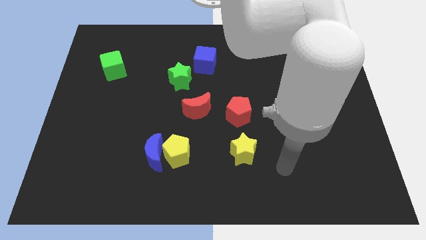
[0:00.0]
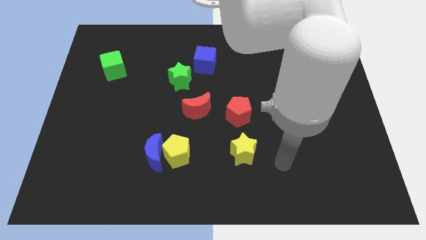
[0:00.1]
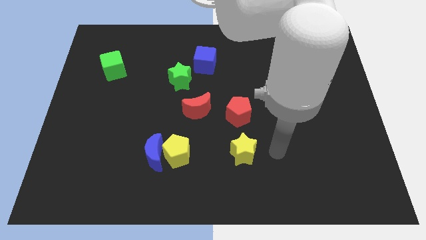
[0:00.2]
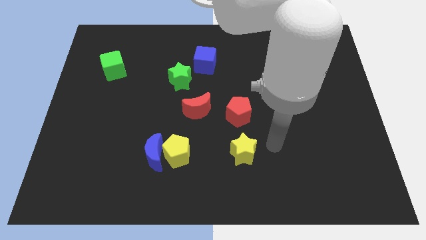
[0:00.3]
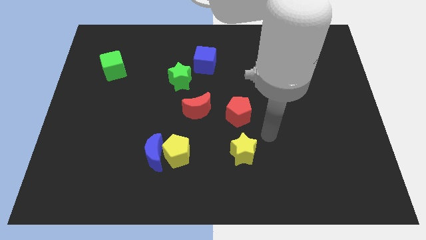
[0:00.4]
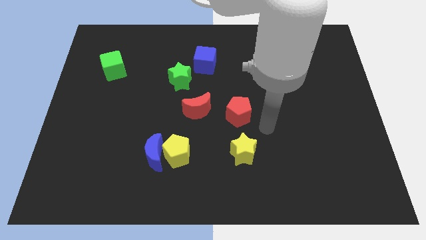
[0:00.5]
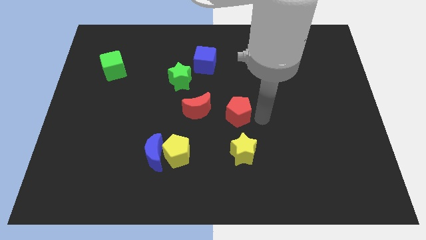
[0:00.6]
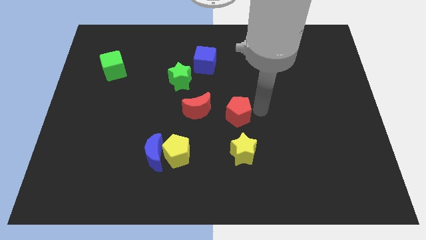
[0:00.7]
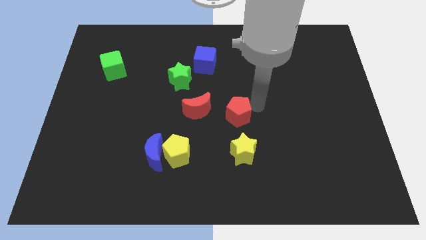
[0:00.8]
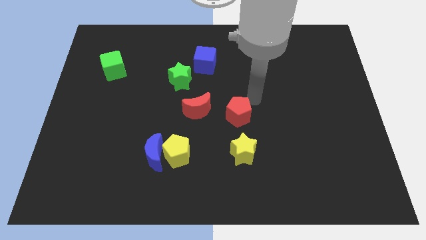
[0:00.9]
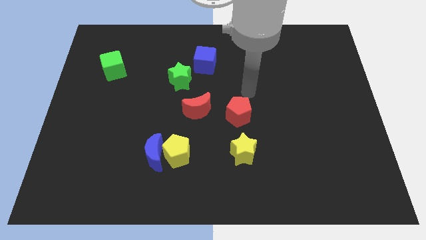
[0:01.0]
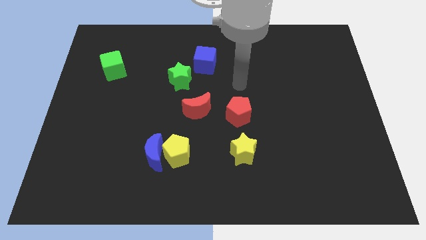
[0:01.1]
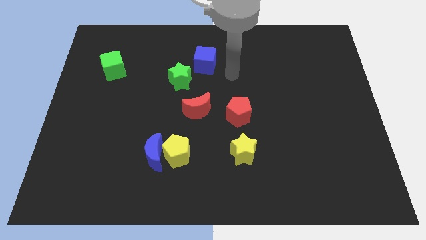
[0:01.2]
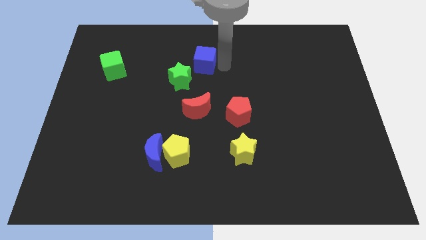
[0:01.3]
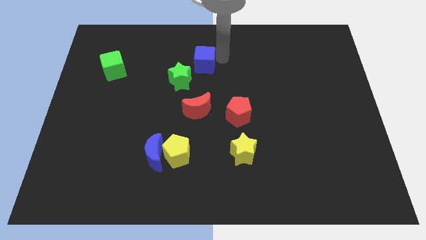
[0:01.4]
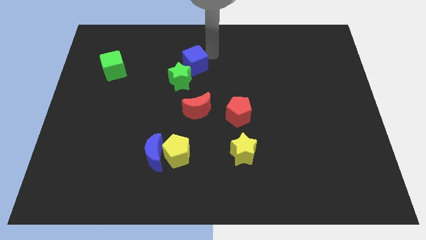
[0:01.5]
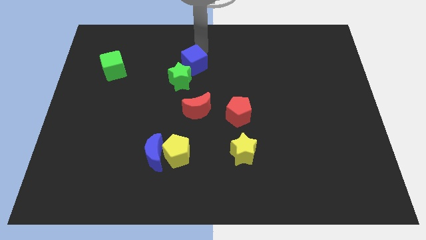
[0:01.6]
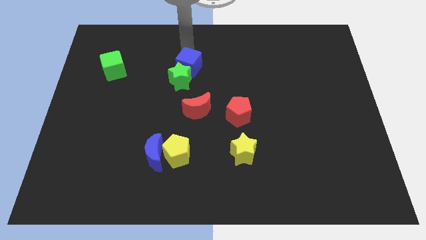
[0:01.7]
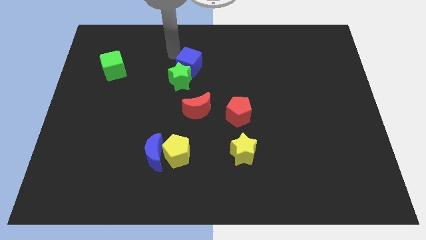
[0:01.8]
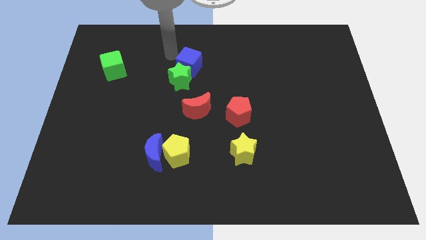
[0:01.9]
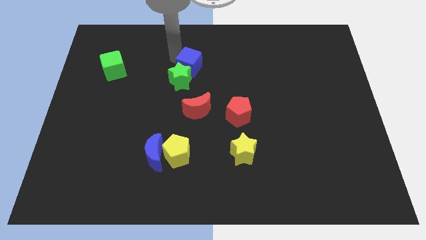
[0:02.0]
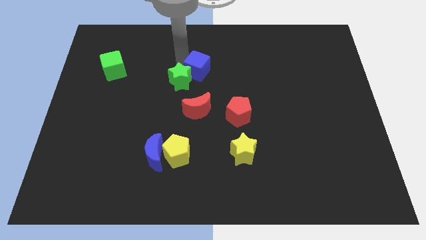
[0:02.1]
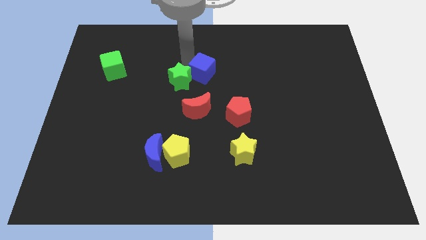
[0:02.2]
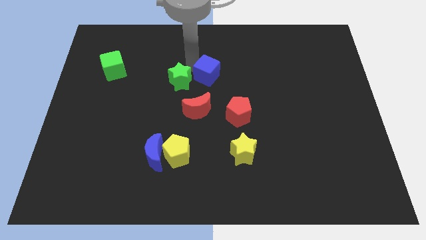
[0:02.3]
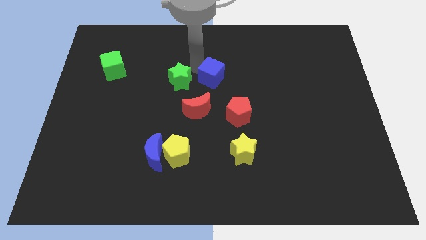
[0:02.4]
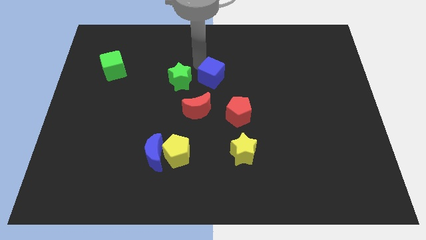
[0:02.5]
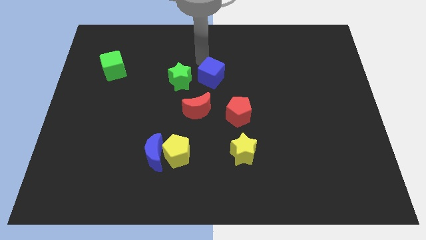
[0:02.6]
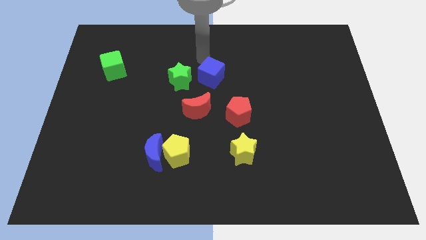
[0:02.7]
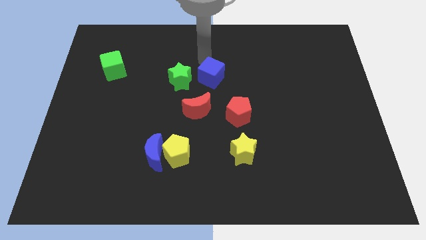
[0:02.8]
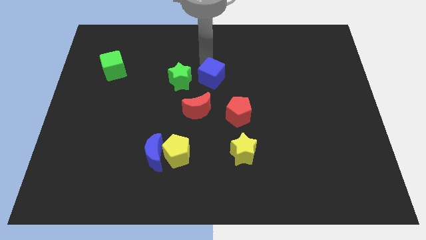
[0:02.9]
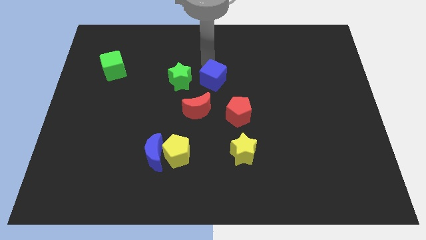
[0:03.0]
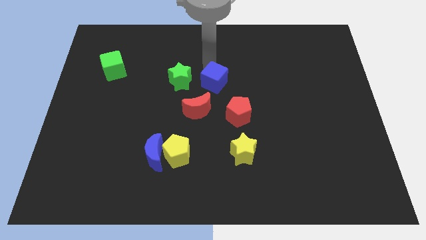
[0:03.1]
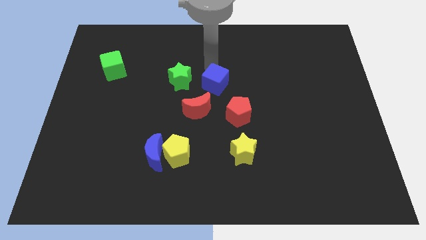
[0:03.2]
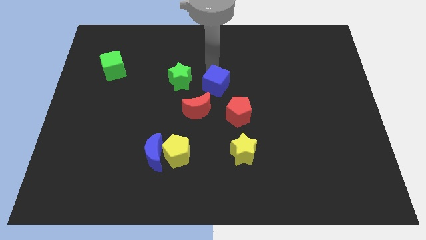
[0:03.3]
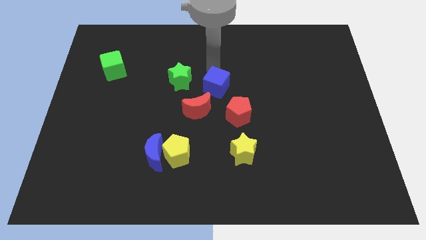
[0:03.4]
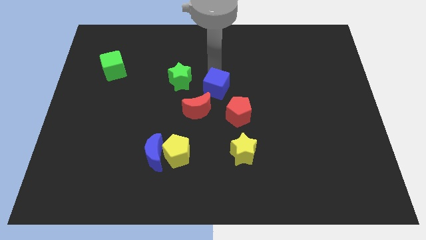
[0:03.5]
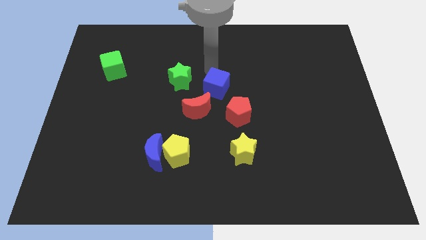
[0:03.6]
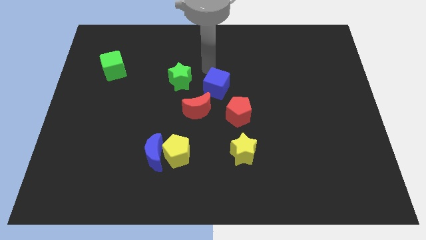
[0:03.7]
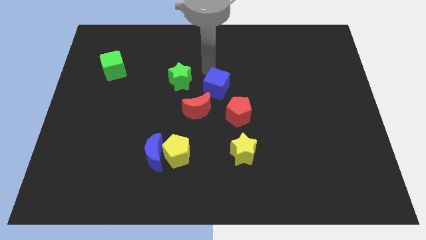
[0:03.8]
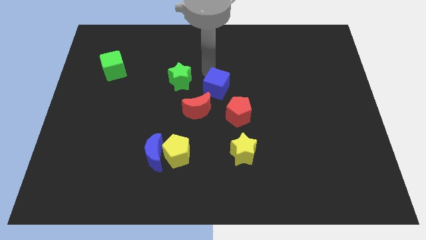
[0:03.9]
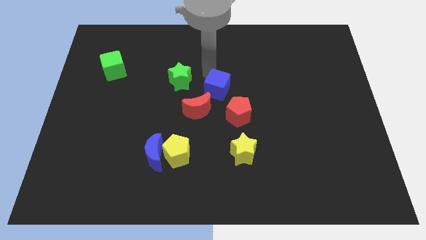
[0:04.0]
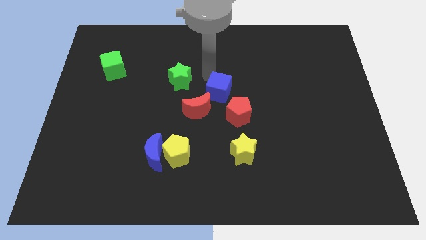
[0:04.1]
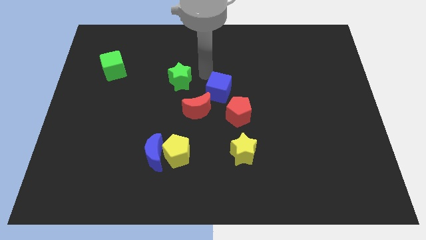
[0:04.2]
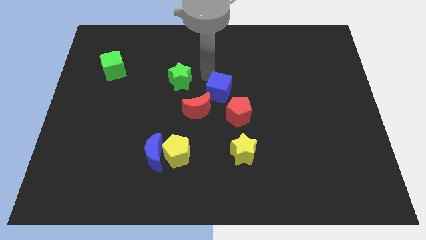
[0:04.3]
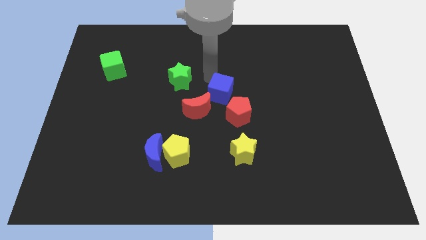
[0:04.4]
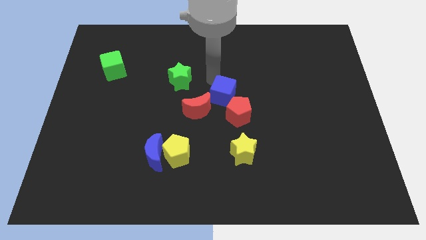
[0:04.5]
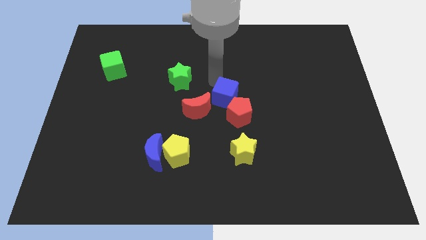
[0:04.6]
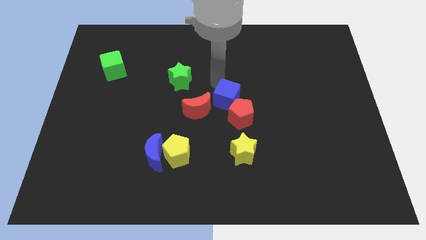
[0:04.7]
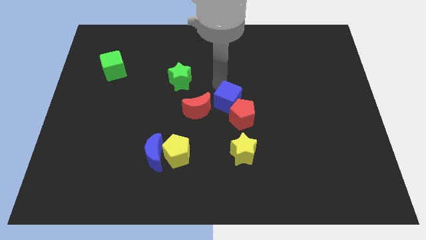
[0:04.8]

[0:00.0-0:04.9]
slide the blue cube close to the red pentagon

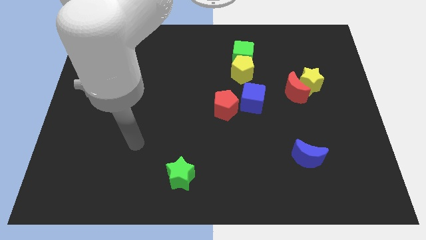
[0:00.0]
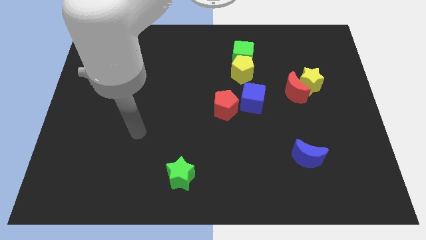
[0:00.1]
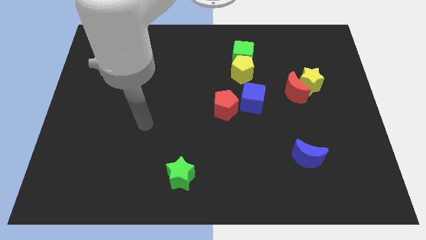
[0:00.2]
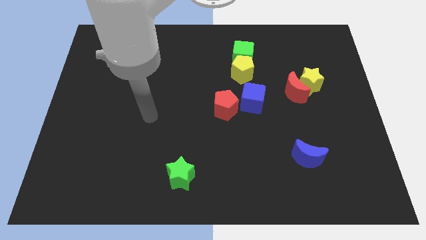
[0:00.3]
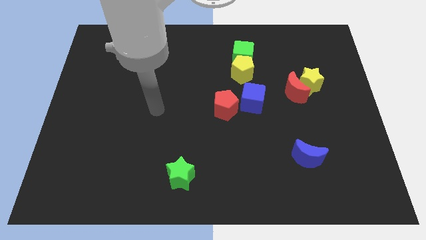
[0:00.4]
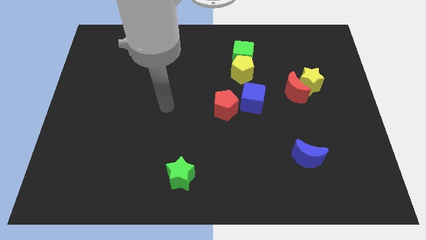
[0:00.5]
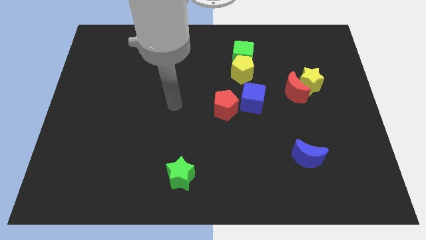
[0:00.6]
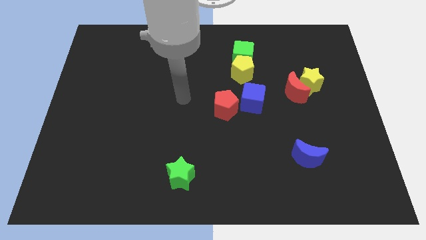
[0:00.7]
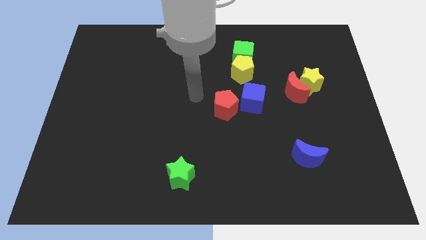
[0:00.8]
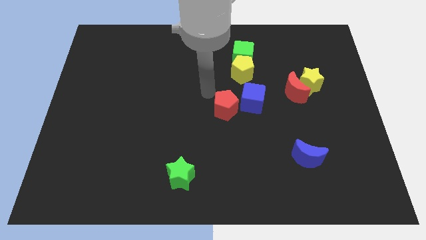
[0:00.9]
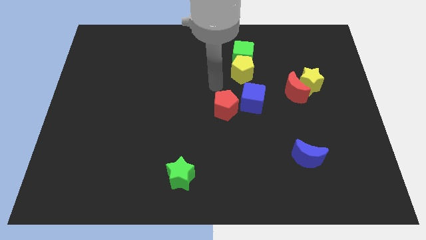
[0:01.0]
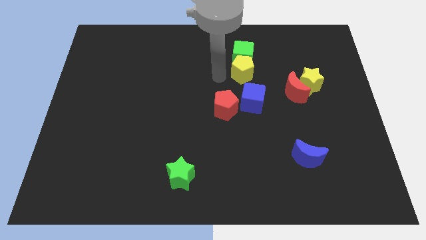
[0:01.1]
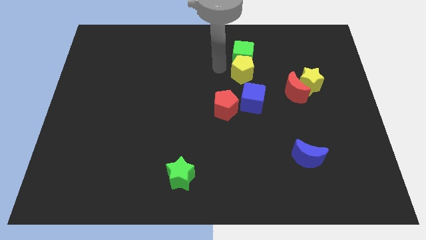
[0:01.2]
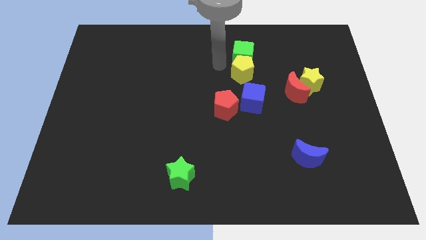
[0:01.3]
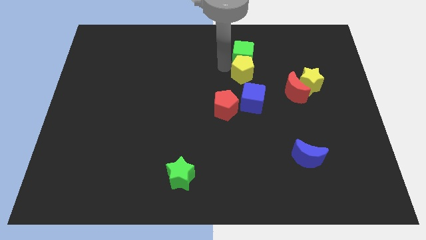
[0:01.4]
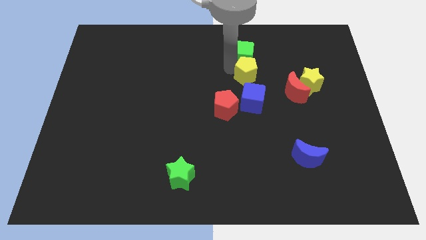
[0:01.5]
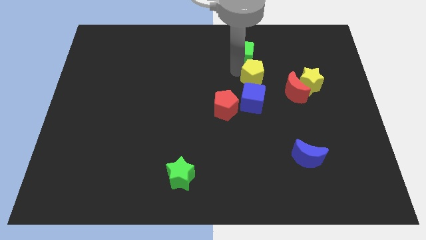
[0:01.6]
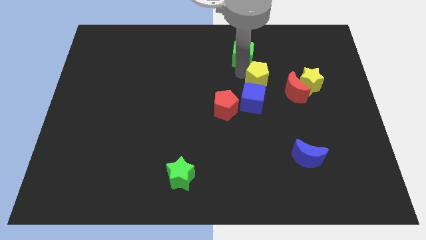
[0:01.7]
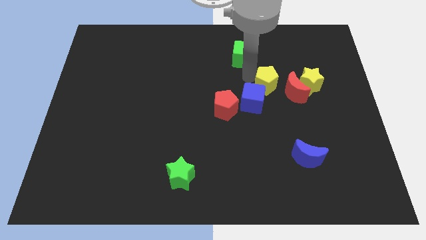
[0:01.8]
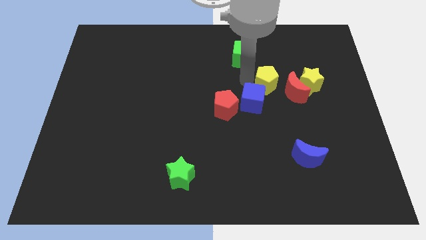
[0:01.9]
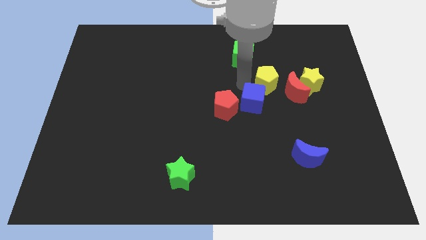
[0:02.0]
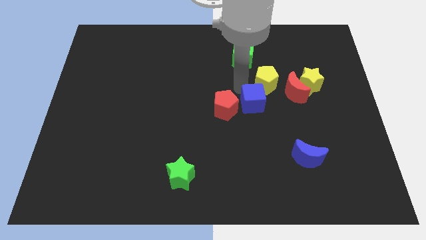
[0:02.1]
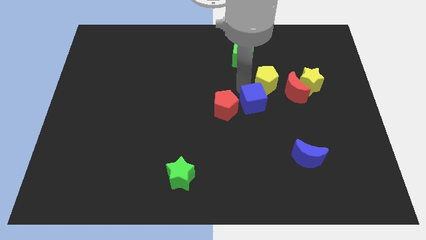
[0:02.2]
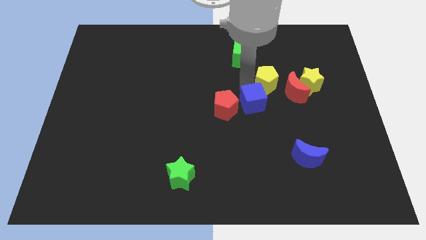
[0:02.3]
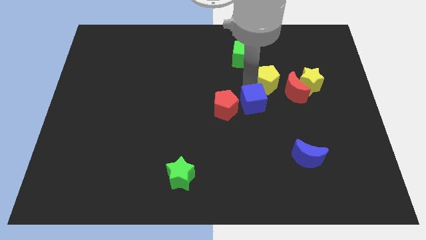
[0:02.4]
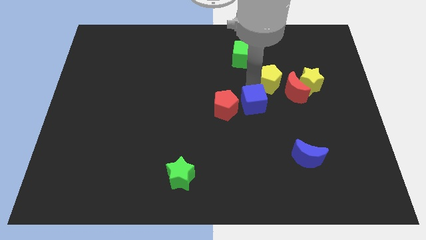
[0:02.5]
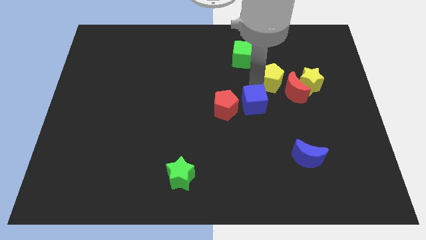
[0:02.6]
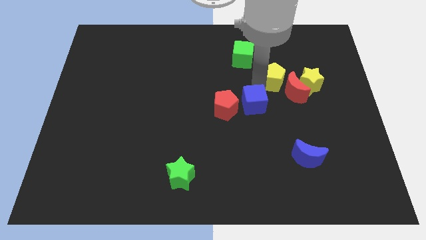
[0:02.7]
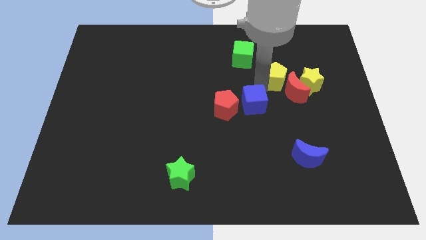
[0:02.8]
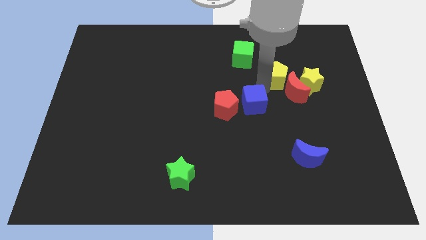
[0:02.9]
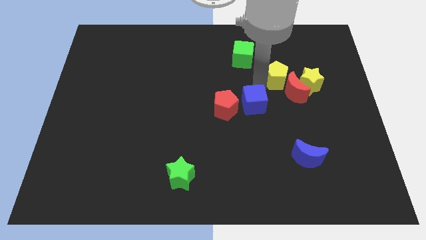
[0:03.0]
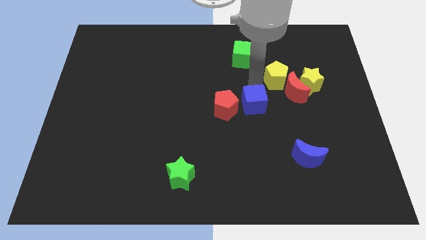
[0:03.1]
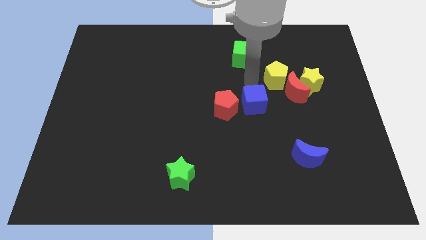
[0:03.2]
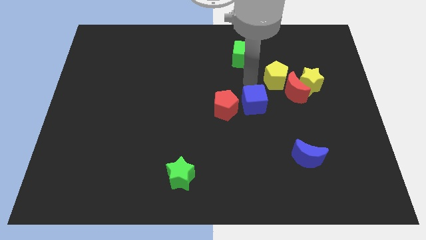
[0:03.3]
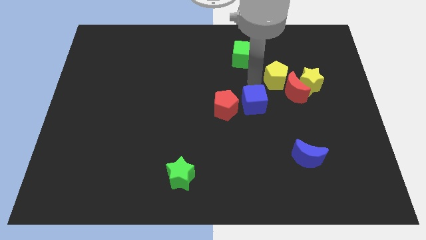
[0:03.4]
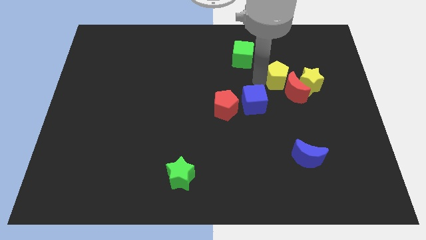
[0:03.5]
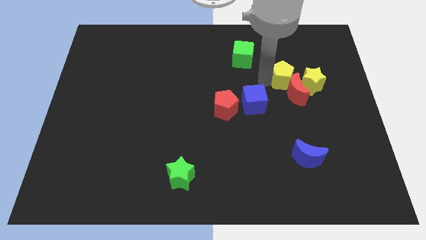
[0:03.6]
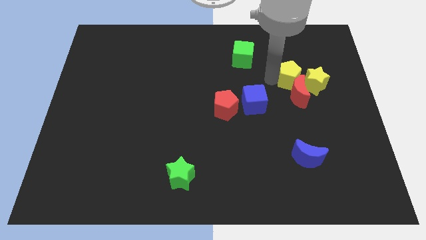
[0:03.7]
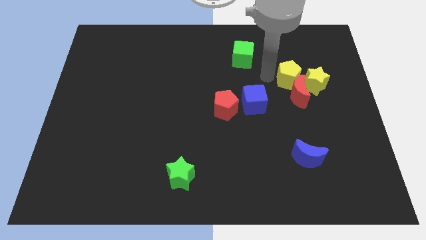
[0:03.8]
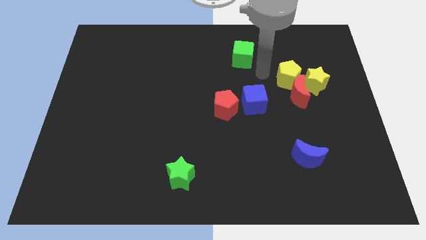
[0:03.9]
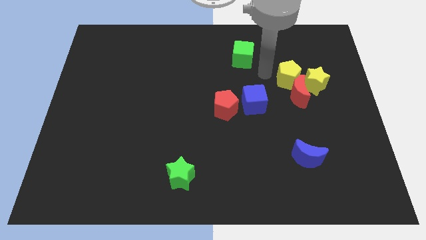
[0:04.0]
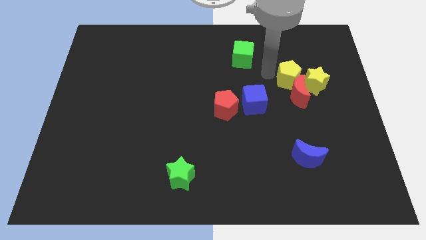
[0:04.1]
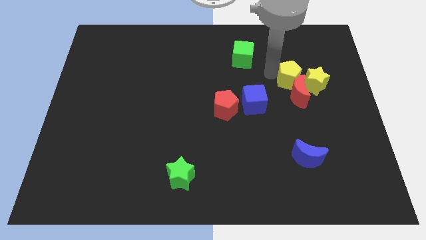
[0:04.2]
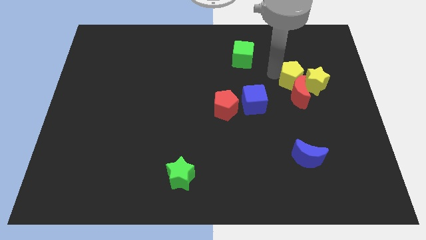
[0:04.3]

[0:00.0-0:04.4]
move the yellow pentagon to the yellow star
